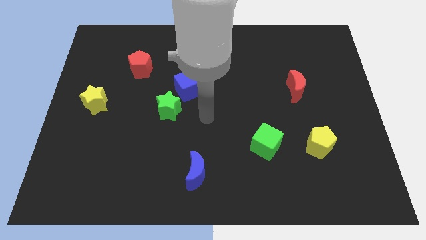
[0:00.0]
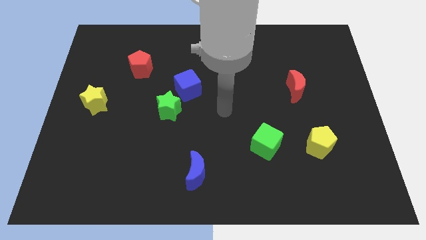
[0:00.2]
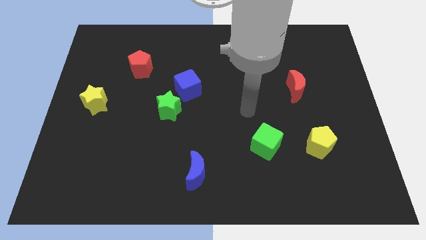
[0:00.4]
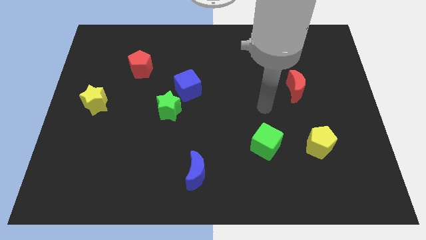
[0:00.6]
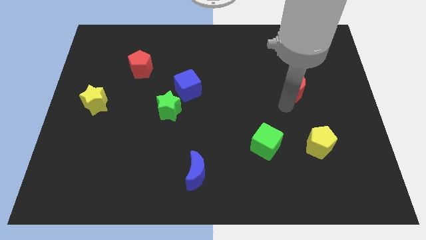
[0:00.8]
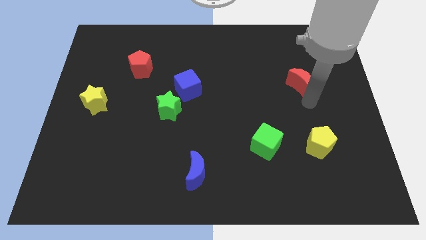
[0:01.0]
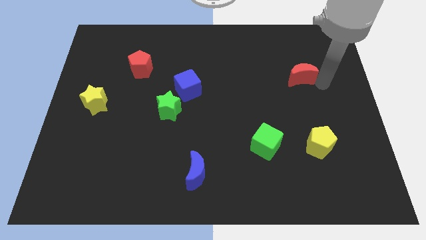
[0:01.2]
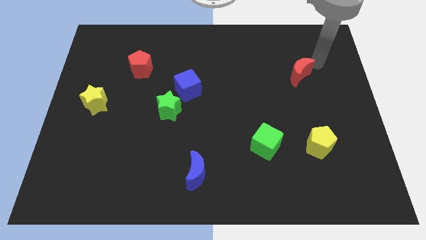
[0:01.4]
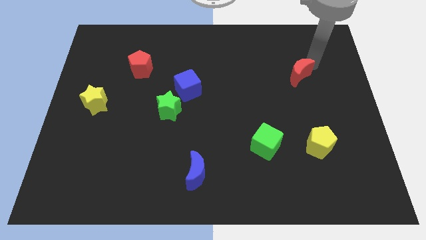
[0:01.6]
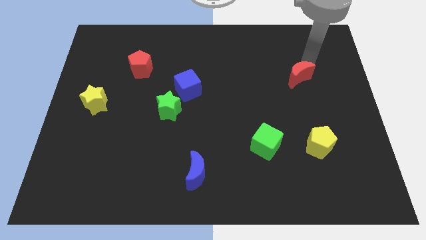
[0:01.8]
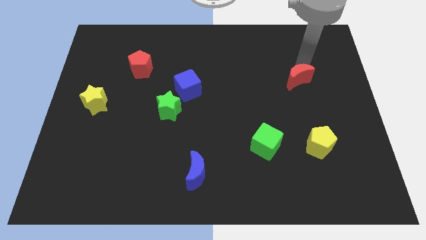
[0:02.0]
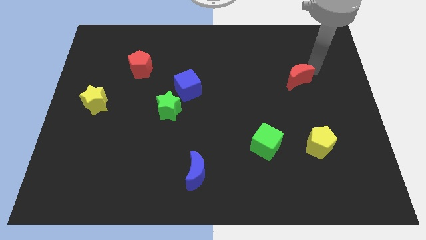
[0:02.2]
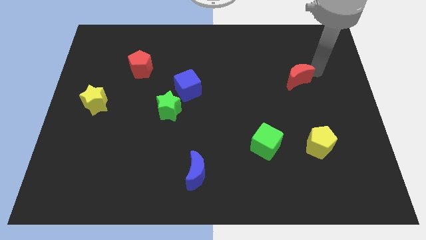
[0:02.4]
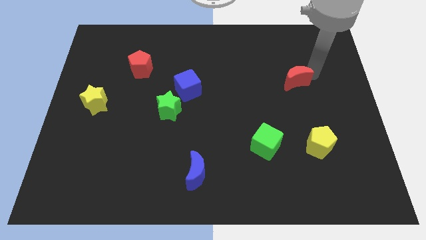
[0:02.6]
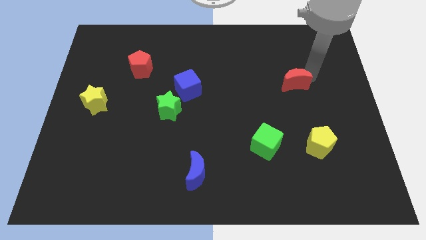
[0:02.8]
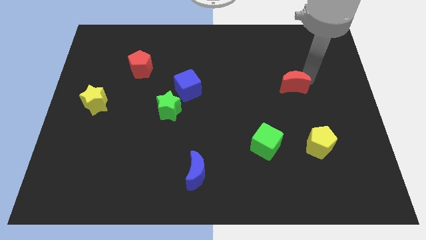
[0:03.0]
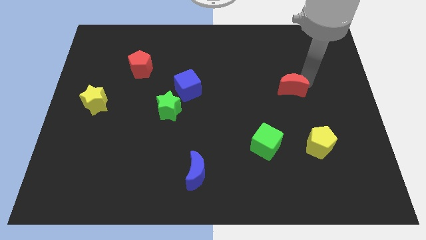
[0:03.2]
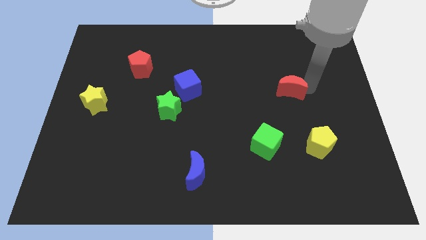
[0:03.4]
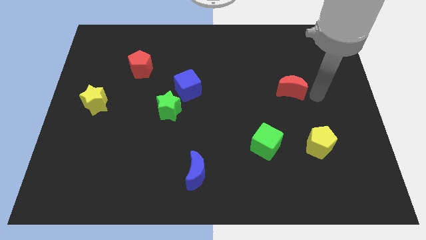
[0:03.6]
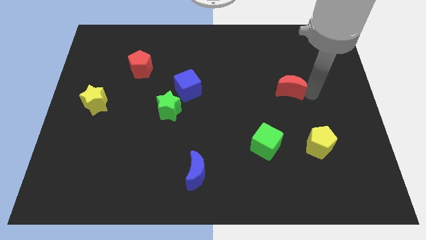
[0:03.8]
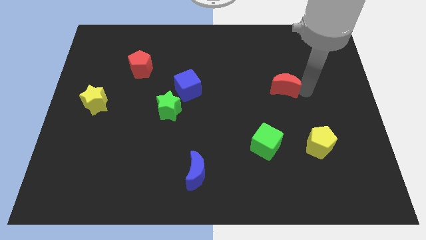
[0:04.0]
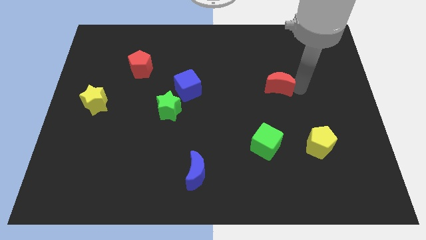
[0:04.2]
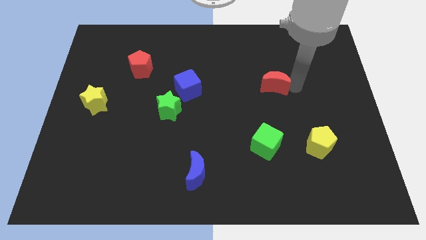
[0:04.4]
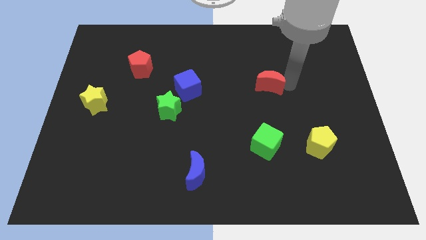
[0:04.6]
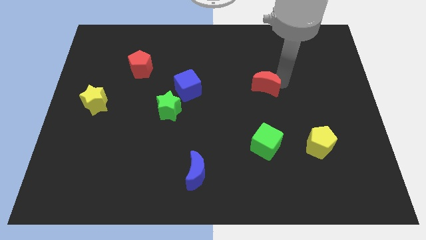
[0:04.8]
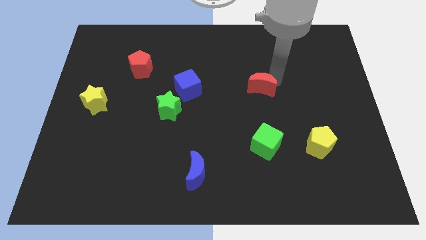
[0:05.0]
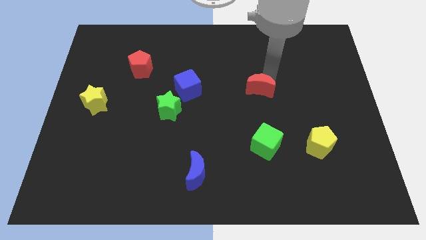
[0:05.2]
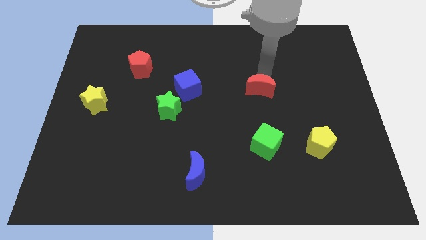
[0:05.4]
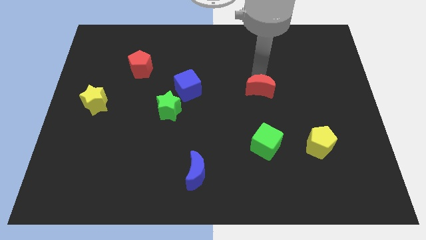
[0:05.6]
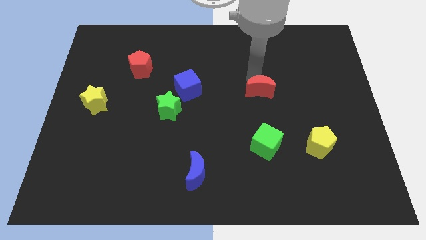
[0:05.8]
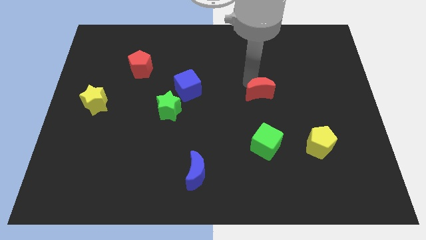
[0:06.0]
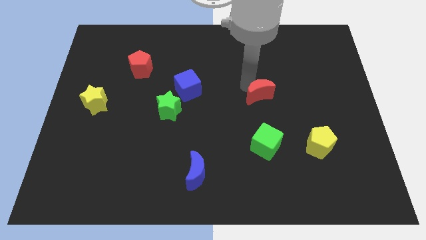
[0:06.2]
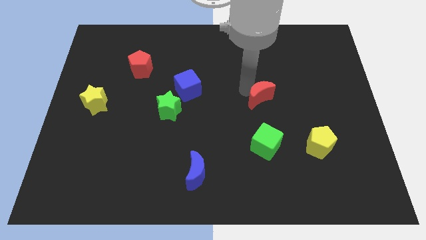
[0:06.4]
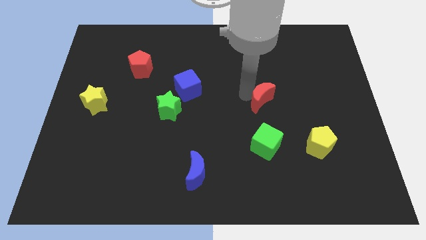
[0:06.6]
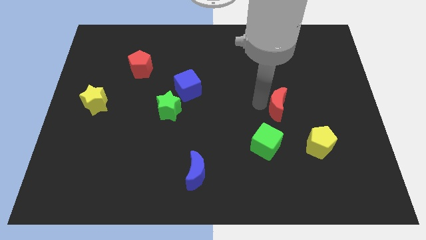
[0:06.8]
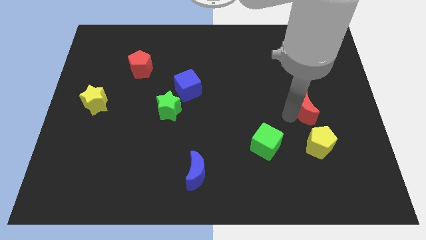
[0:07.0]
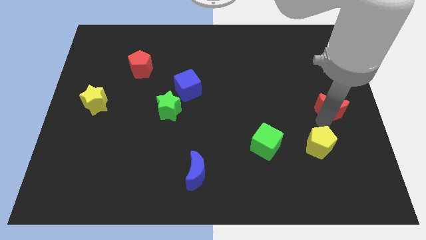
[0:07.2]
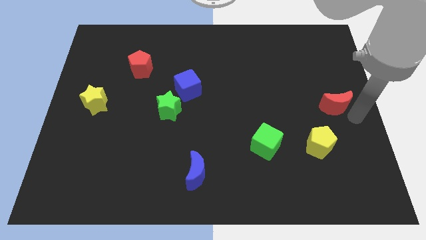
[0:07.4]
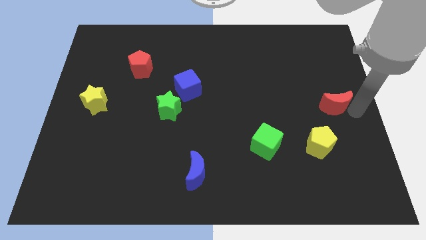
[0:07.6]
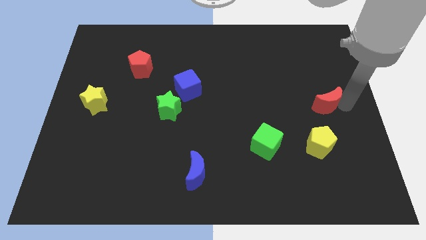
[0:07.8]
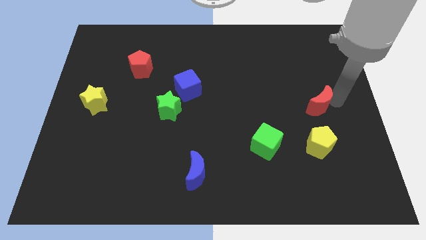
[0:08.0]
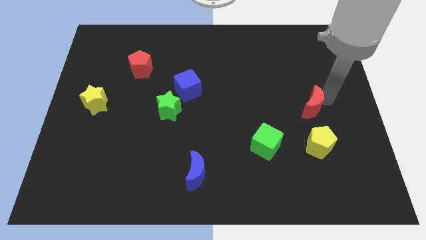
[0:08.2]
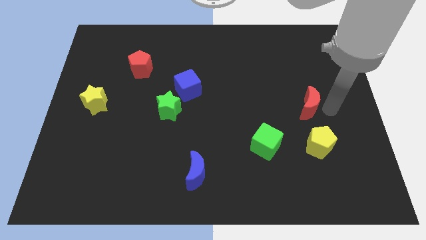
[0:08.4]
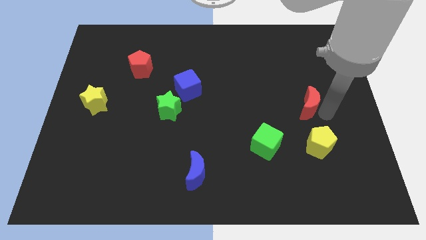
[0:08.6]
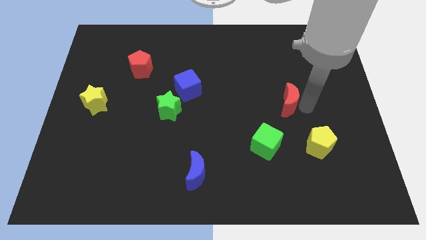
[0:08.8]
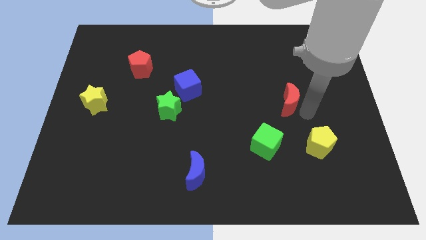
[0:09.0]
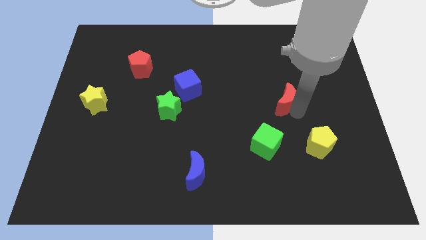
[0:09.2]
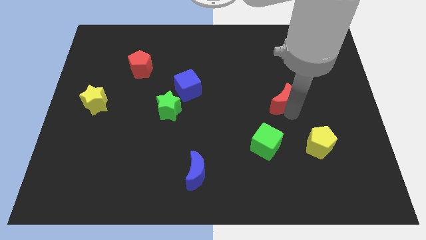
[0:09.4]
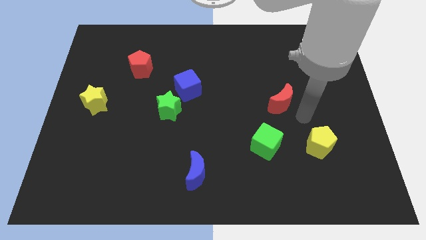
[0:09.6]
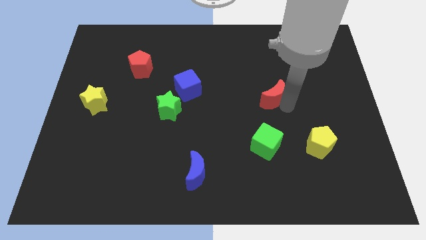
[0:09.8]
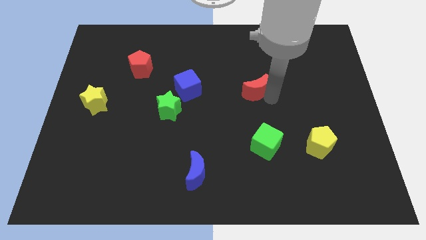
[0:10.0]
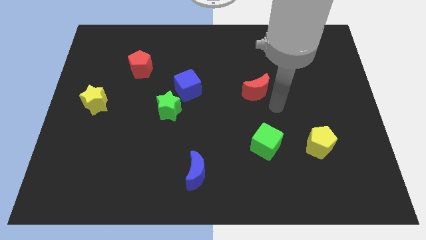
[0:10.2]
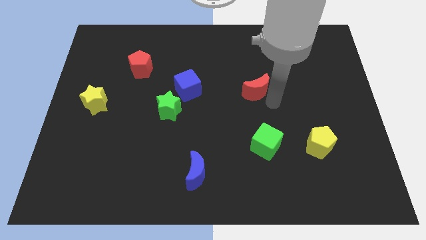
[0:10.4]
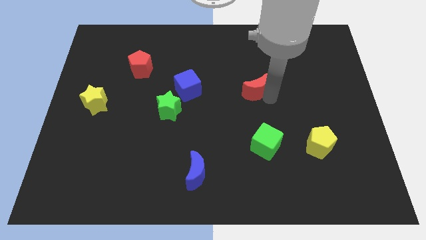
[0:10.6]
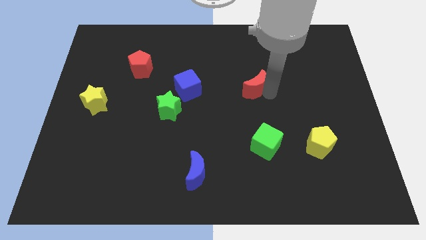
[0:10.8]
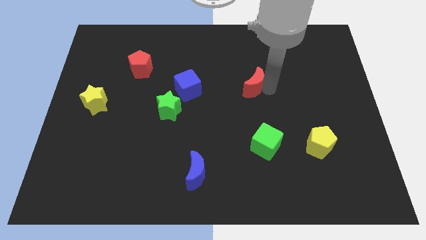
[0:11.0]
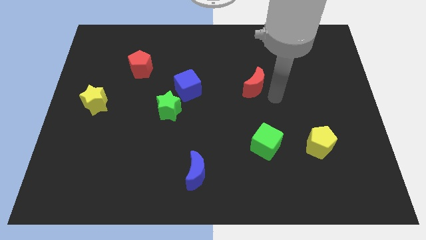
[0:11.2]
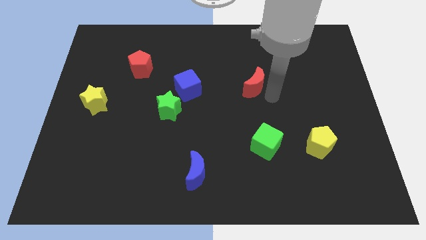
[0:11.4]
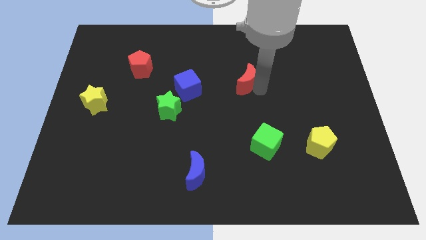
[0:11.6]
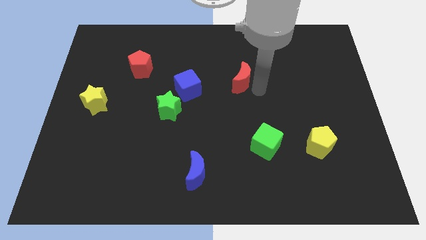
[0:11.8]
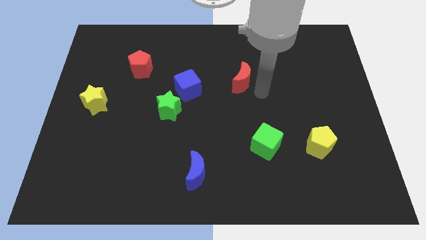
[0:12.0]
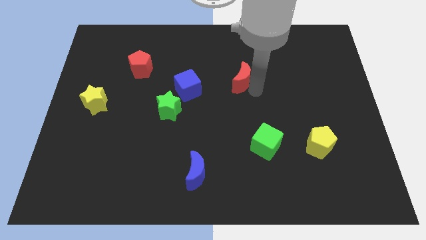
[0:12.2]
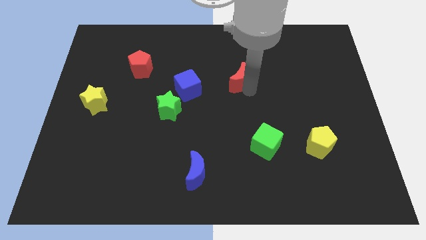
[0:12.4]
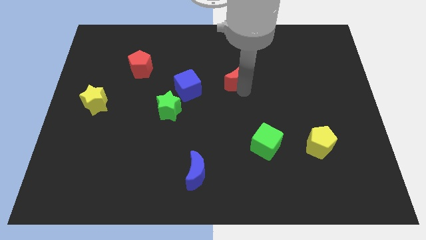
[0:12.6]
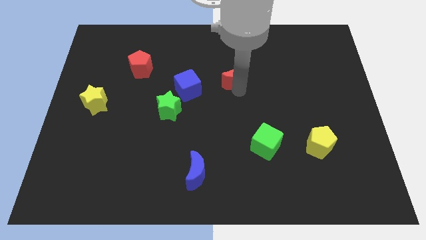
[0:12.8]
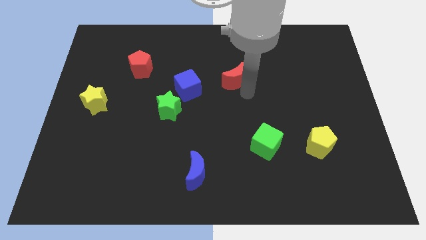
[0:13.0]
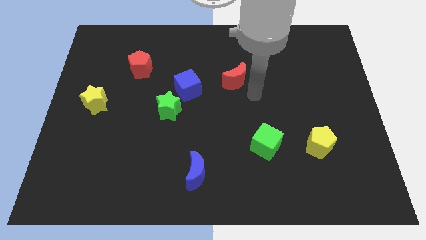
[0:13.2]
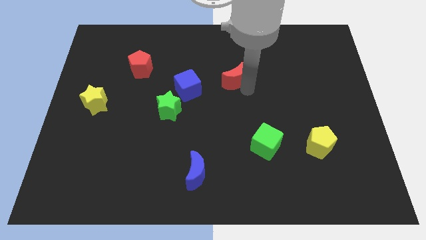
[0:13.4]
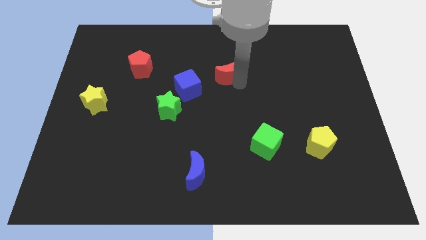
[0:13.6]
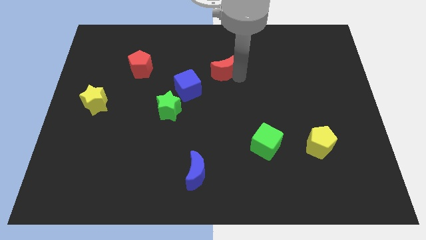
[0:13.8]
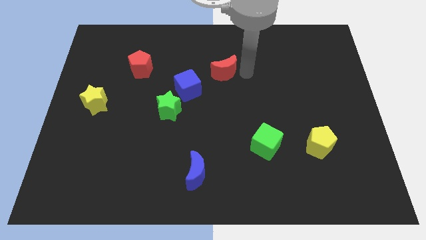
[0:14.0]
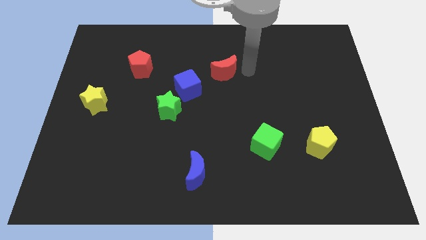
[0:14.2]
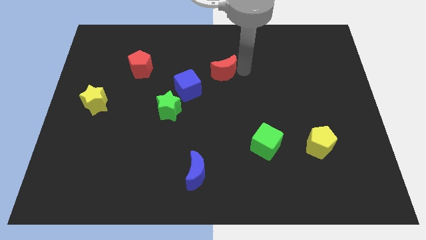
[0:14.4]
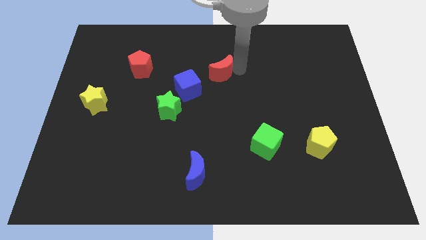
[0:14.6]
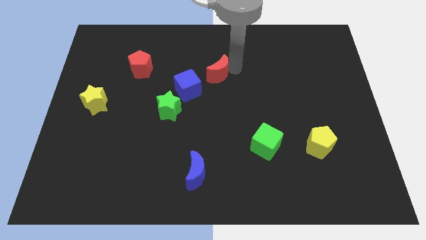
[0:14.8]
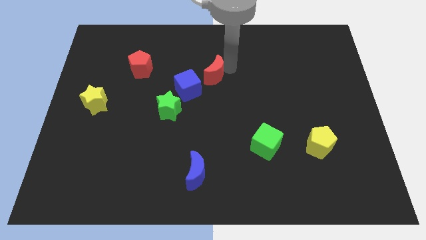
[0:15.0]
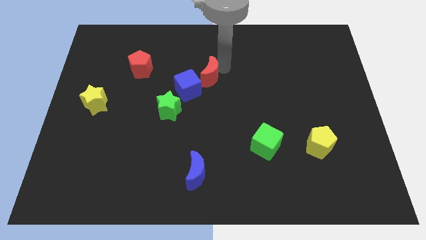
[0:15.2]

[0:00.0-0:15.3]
push the red moon to the left

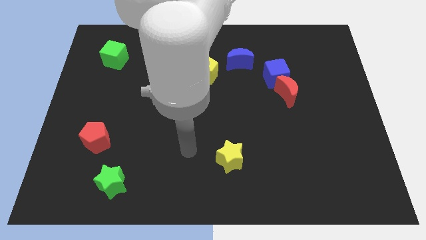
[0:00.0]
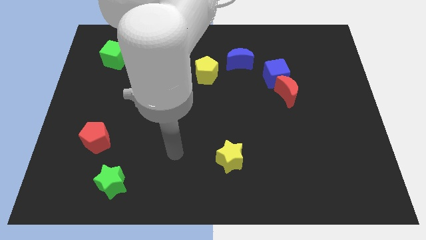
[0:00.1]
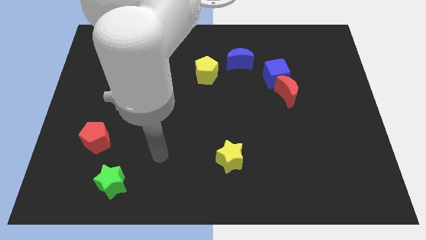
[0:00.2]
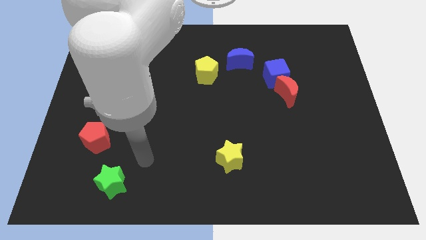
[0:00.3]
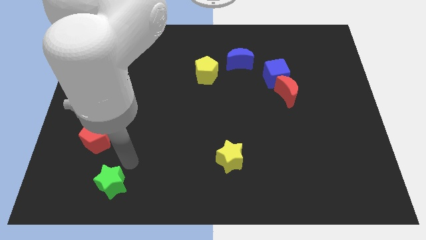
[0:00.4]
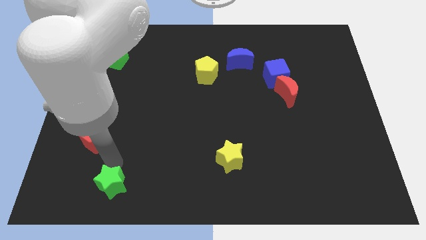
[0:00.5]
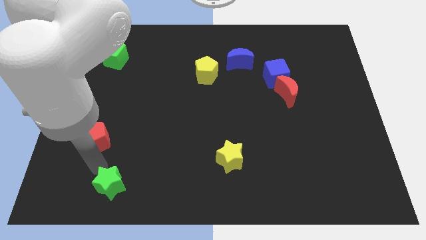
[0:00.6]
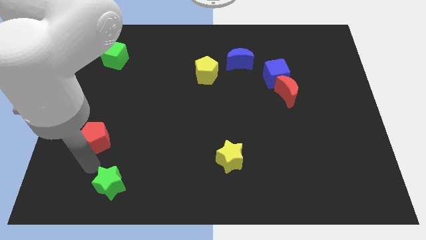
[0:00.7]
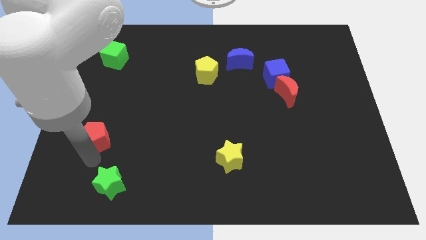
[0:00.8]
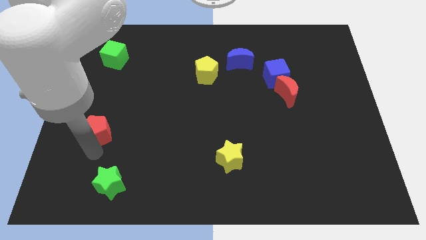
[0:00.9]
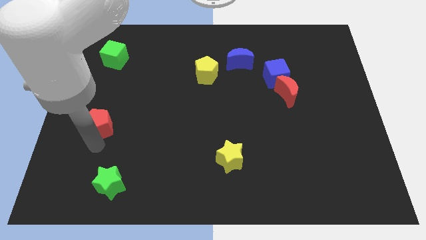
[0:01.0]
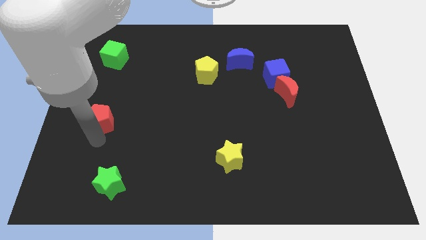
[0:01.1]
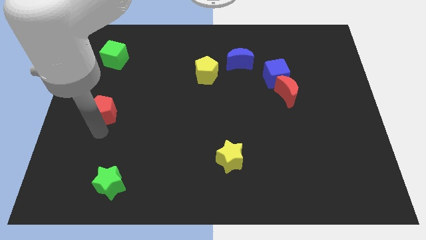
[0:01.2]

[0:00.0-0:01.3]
move the red pentagon up somewhat
